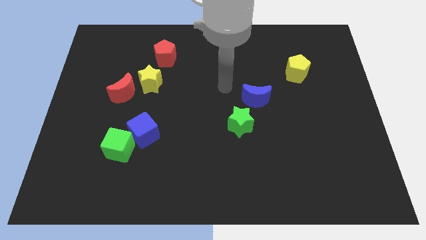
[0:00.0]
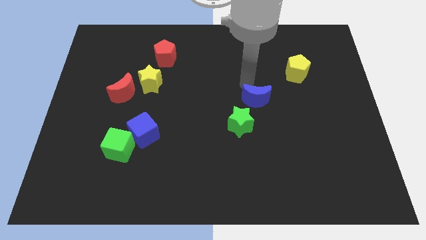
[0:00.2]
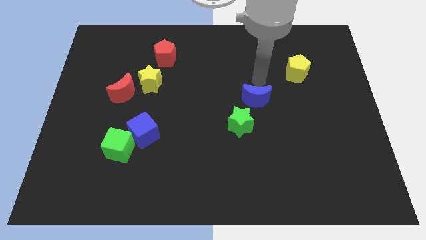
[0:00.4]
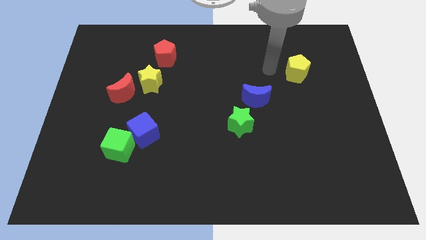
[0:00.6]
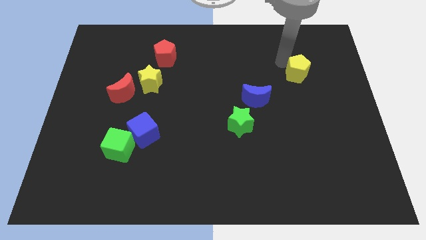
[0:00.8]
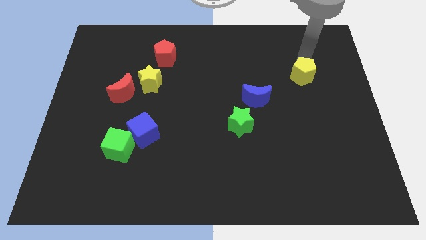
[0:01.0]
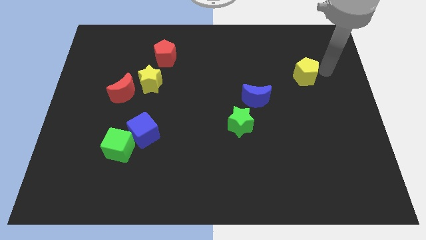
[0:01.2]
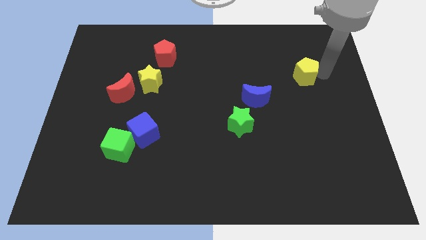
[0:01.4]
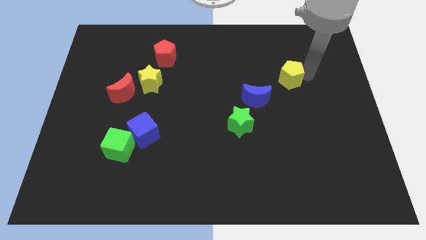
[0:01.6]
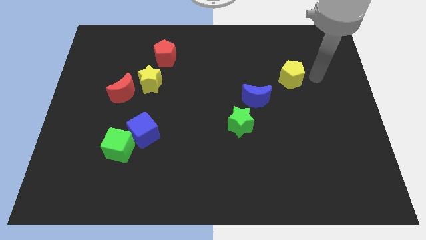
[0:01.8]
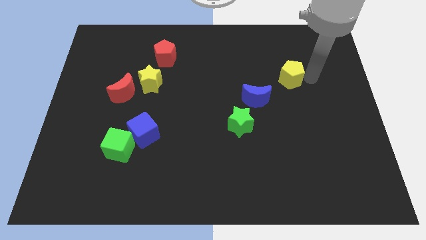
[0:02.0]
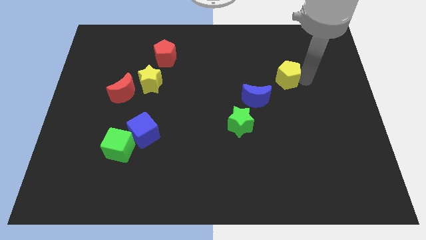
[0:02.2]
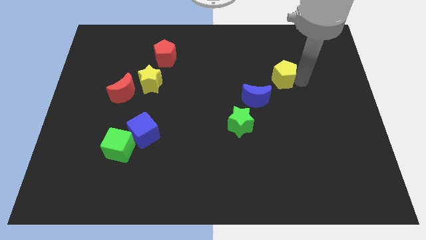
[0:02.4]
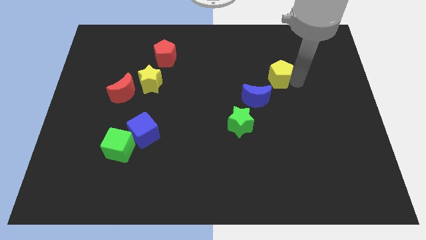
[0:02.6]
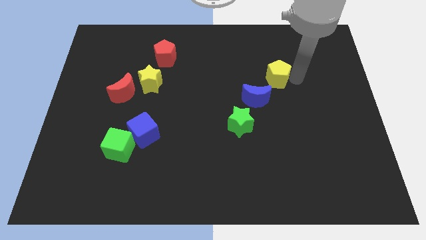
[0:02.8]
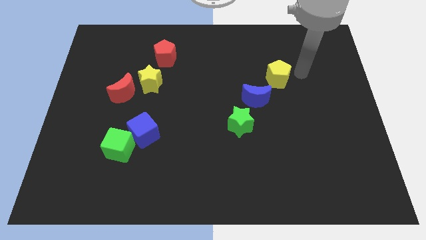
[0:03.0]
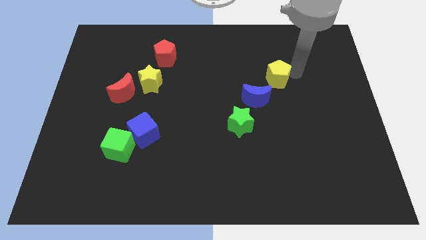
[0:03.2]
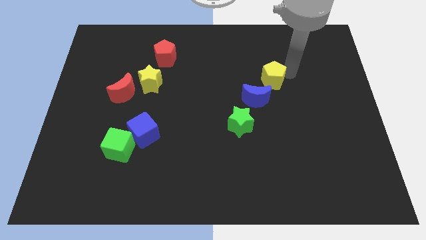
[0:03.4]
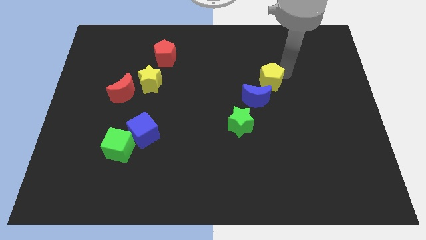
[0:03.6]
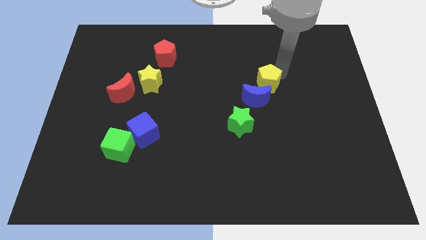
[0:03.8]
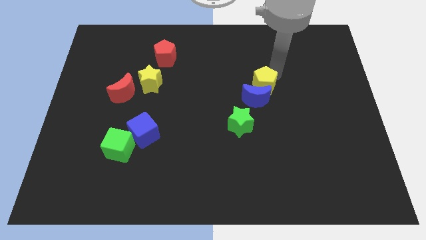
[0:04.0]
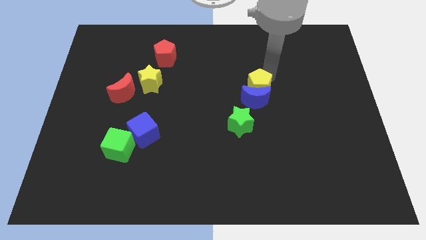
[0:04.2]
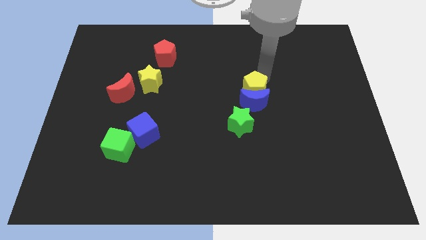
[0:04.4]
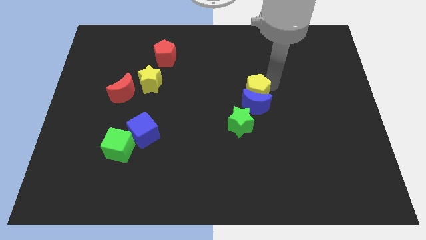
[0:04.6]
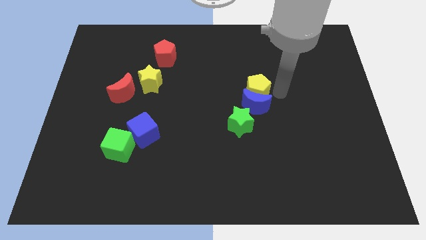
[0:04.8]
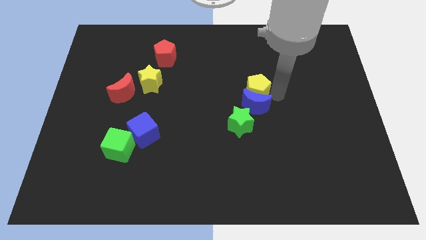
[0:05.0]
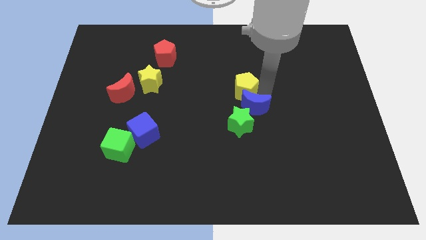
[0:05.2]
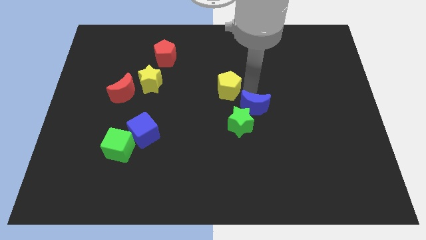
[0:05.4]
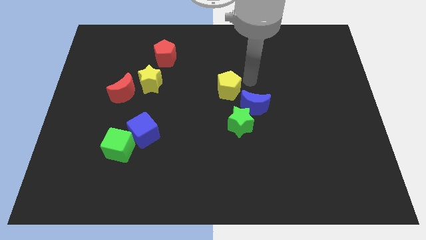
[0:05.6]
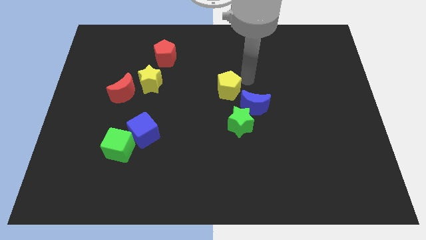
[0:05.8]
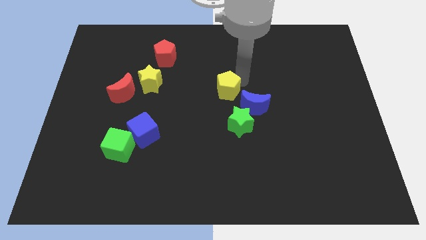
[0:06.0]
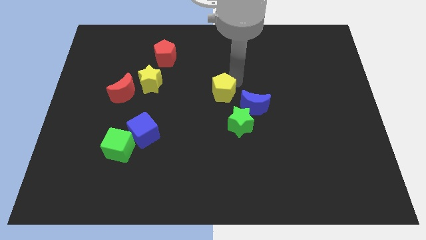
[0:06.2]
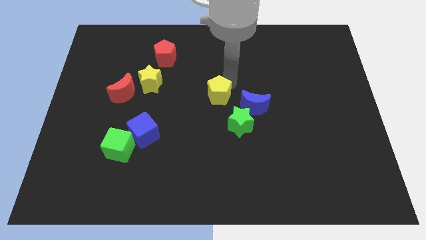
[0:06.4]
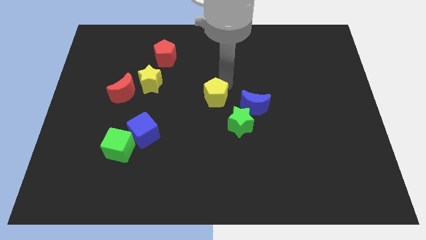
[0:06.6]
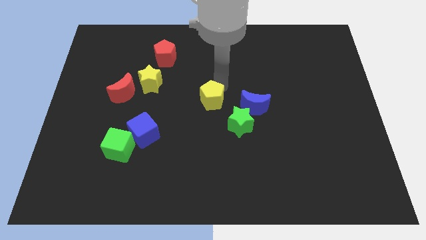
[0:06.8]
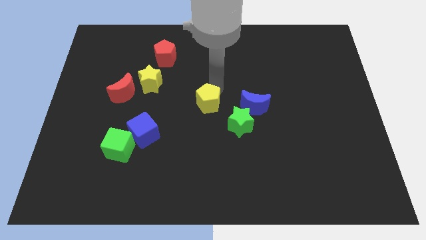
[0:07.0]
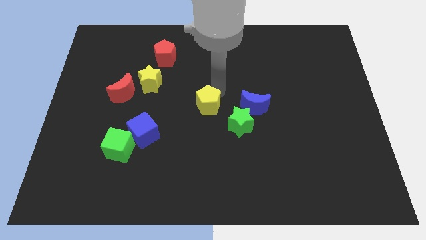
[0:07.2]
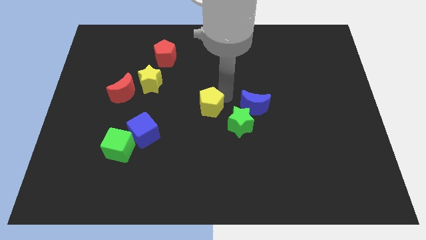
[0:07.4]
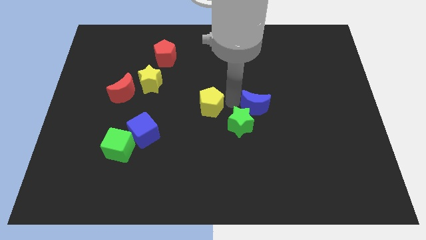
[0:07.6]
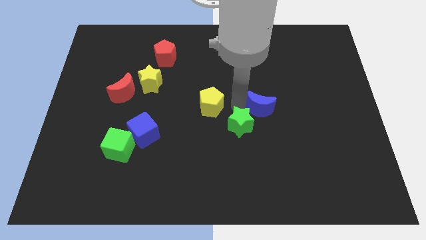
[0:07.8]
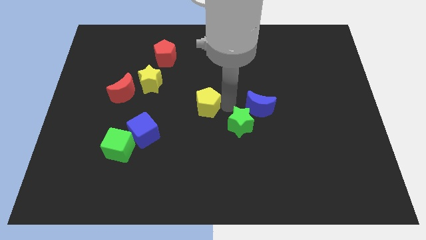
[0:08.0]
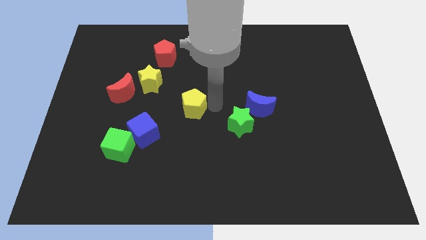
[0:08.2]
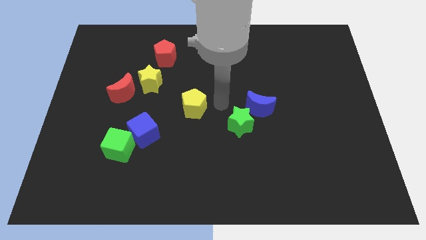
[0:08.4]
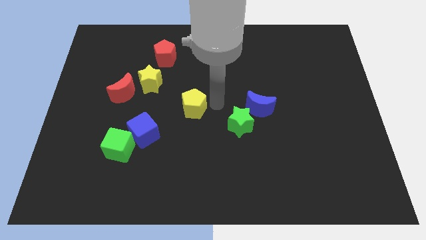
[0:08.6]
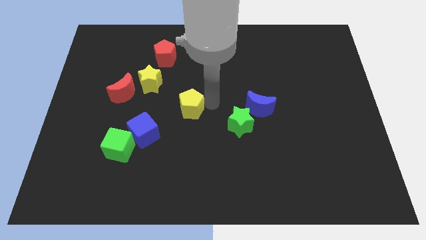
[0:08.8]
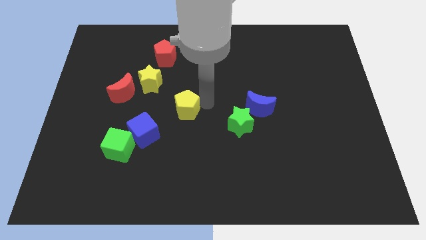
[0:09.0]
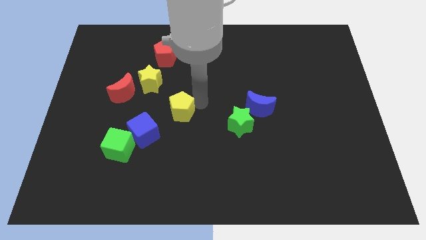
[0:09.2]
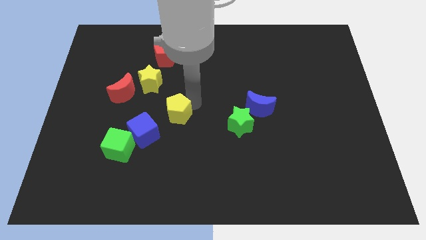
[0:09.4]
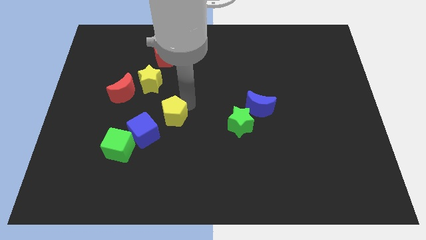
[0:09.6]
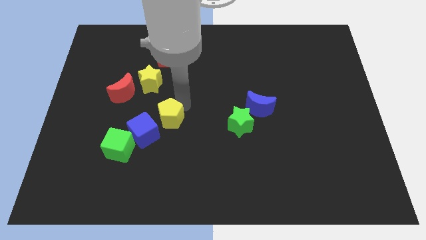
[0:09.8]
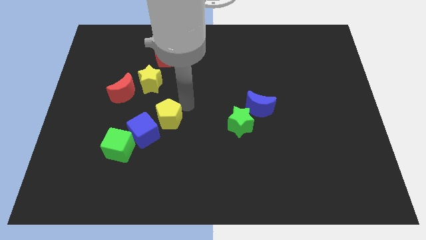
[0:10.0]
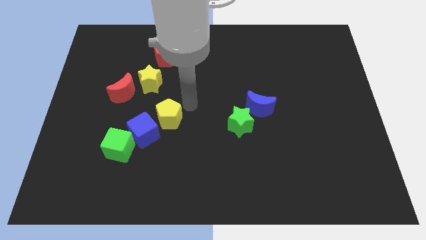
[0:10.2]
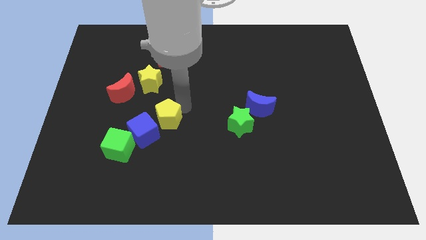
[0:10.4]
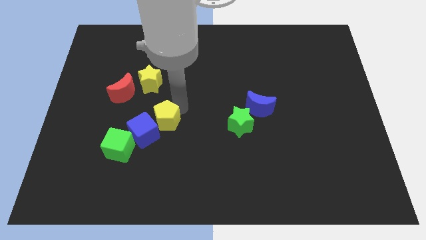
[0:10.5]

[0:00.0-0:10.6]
move the yellow pentagon to the blue cube

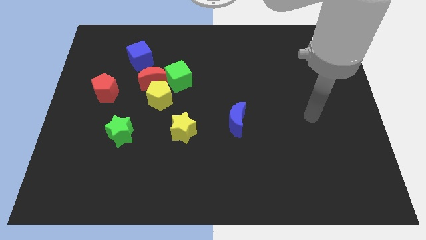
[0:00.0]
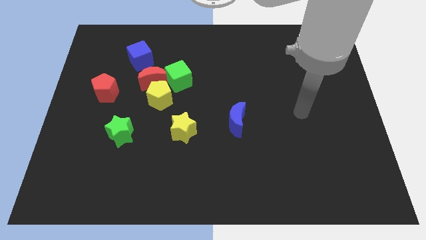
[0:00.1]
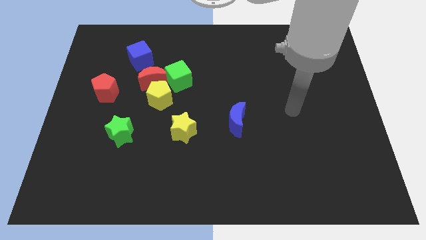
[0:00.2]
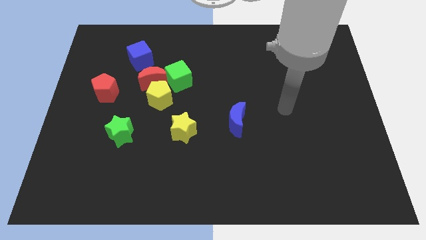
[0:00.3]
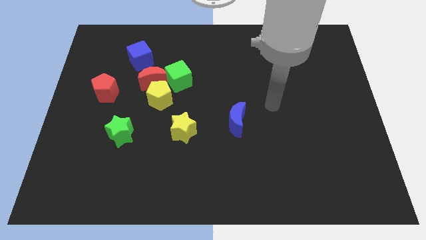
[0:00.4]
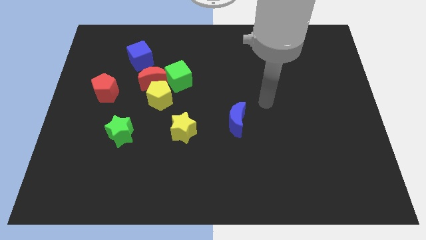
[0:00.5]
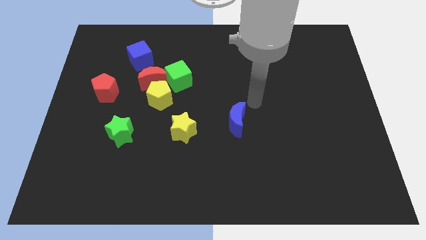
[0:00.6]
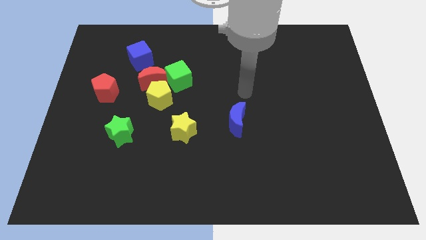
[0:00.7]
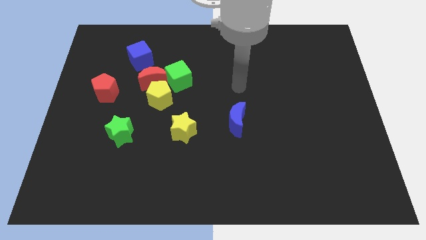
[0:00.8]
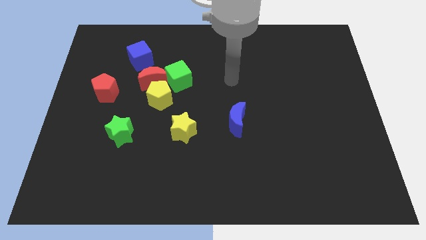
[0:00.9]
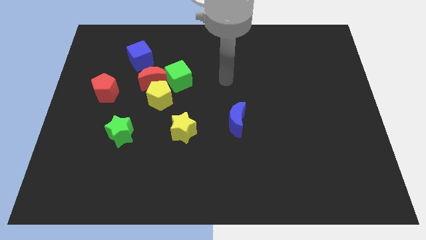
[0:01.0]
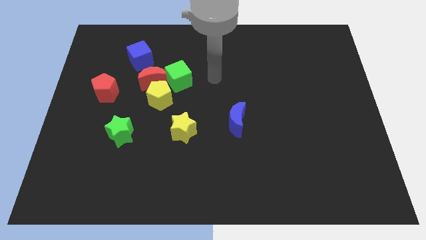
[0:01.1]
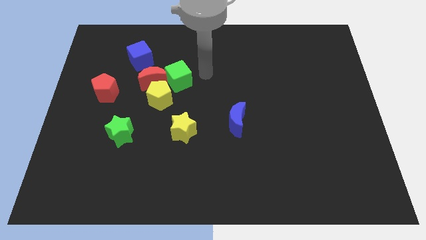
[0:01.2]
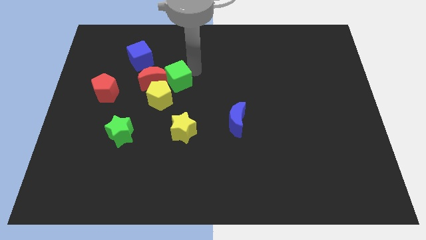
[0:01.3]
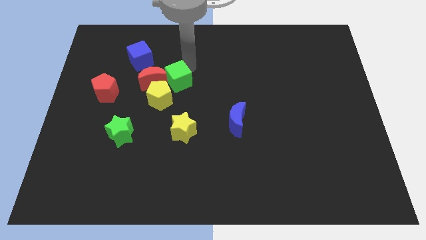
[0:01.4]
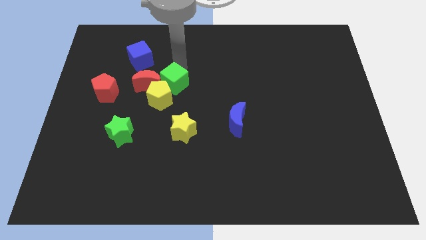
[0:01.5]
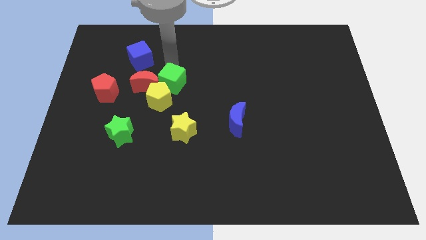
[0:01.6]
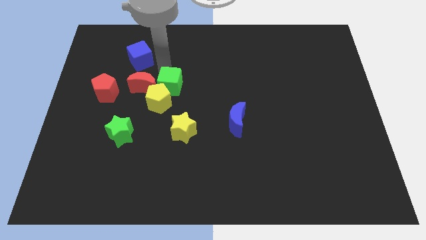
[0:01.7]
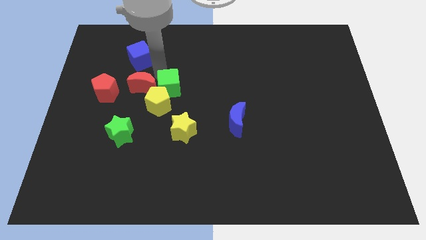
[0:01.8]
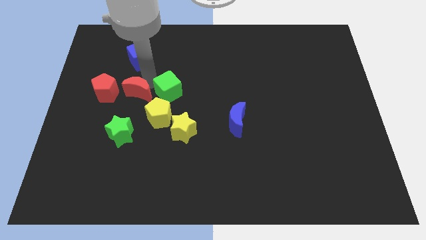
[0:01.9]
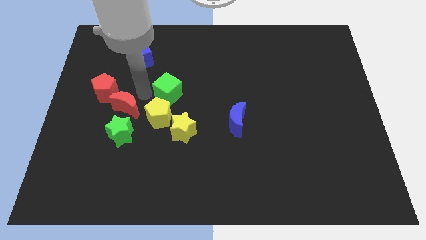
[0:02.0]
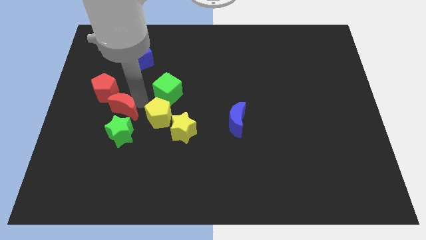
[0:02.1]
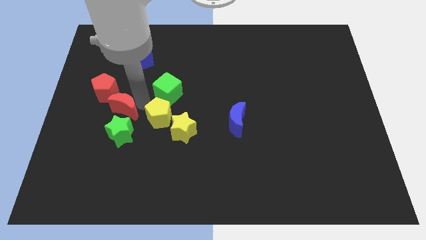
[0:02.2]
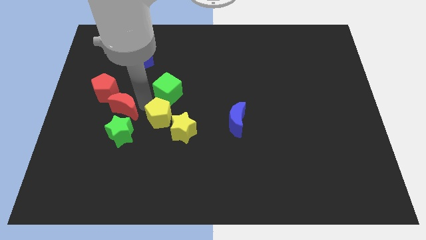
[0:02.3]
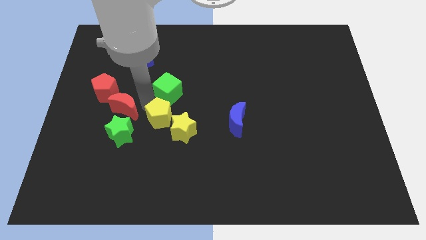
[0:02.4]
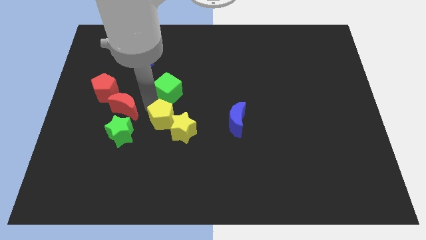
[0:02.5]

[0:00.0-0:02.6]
move the yellow pentagon towards the yellow star
